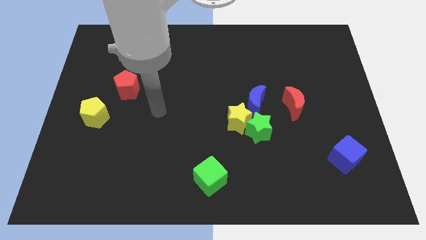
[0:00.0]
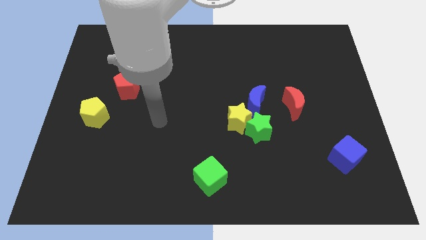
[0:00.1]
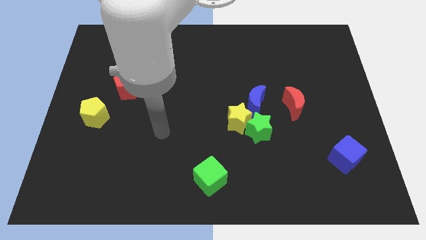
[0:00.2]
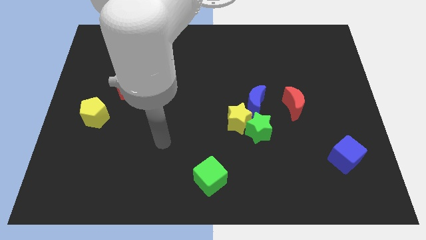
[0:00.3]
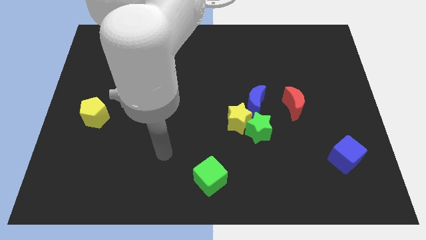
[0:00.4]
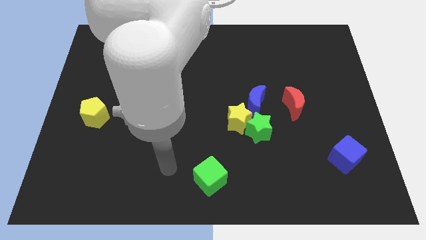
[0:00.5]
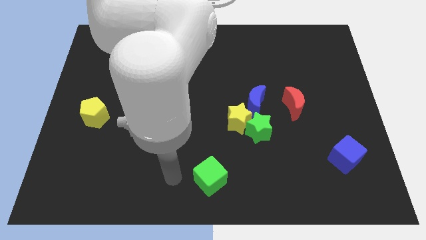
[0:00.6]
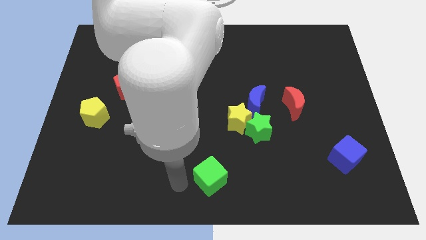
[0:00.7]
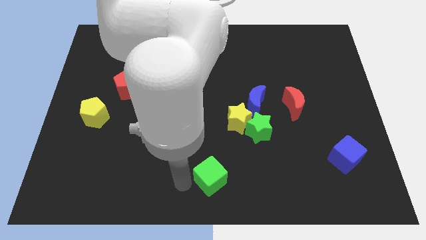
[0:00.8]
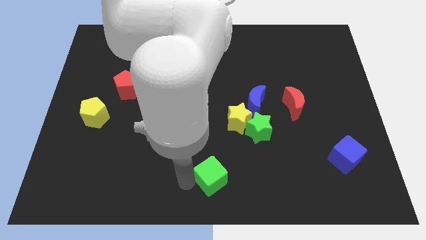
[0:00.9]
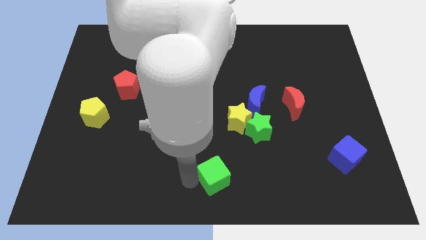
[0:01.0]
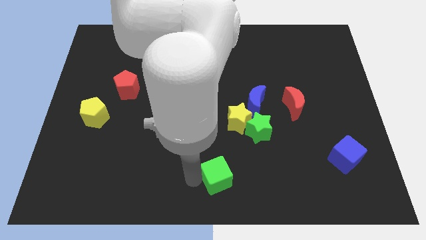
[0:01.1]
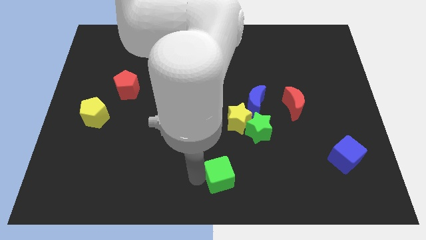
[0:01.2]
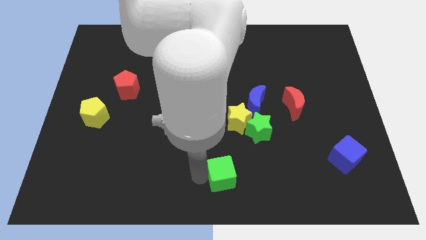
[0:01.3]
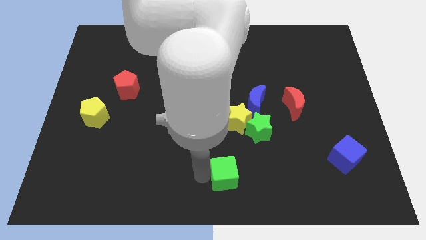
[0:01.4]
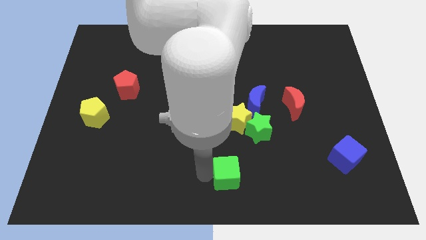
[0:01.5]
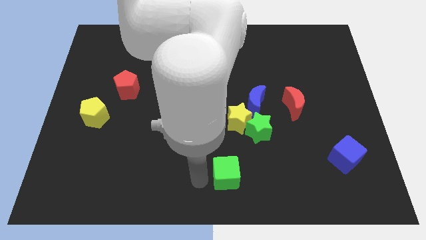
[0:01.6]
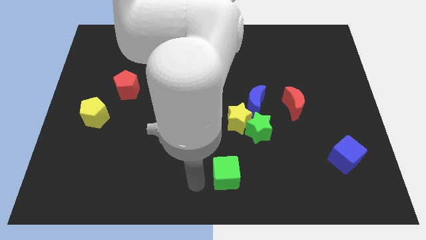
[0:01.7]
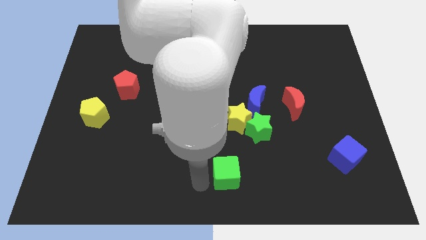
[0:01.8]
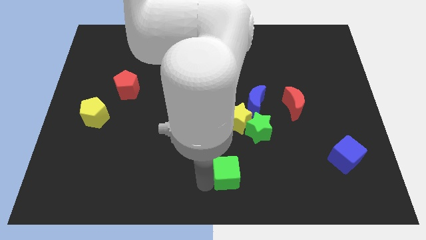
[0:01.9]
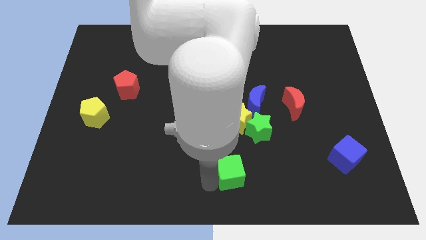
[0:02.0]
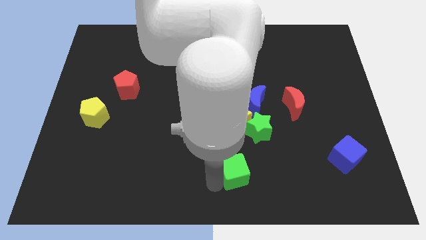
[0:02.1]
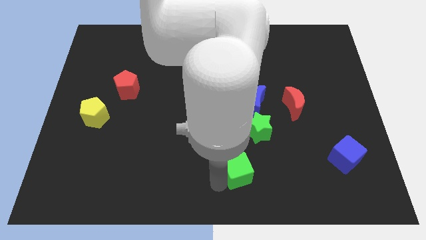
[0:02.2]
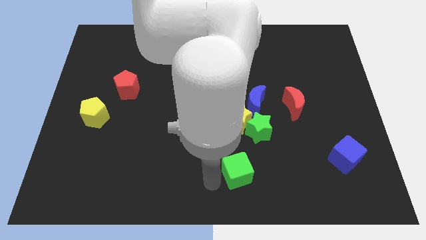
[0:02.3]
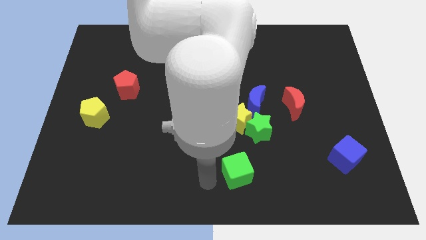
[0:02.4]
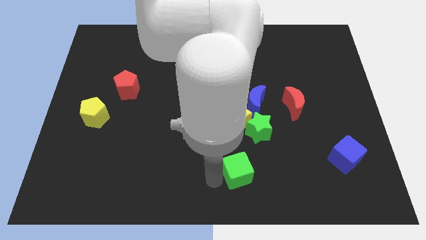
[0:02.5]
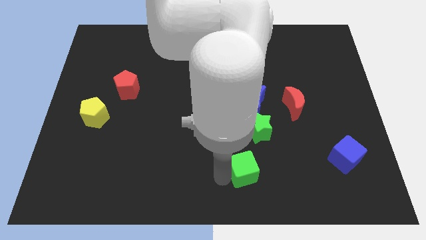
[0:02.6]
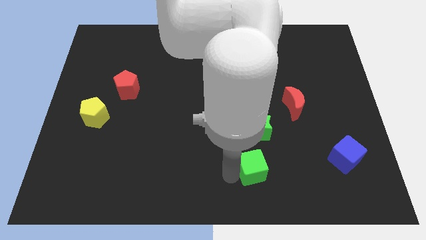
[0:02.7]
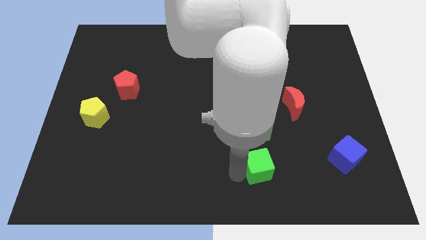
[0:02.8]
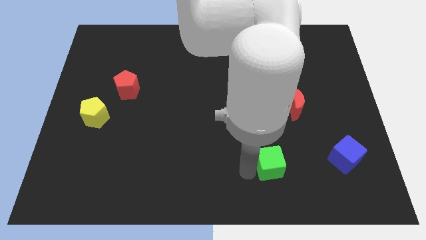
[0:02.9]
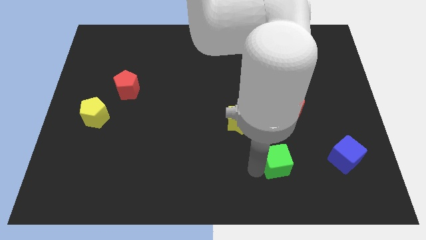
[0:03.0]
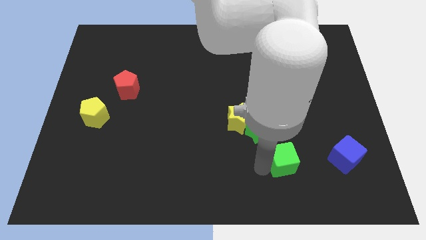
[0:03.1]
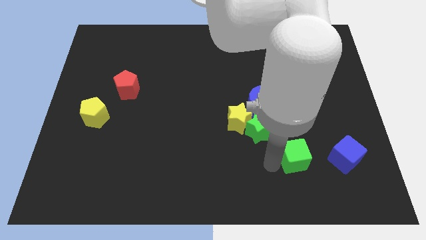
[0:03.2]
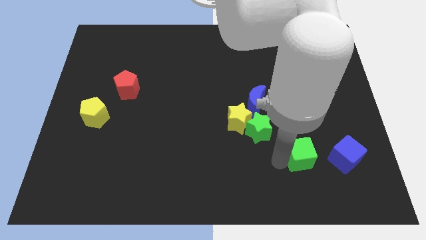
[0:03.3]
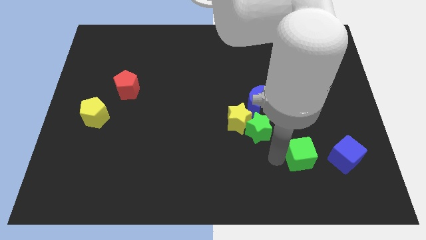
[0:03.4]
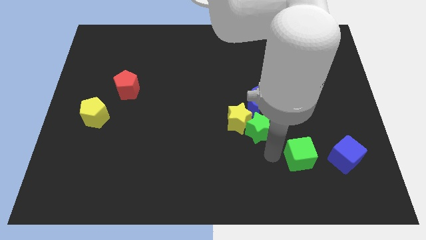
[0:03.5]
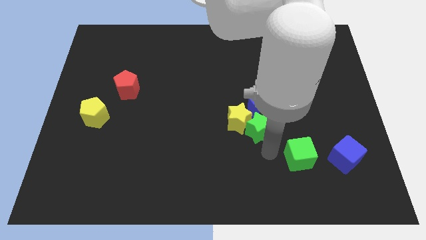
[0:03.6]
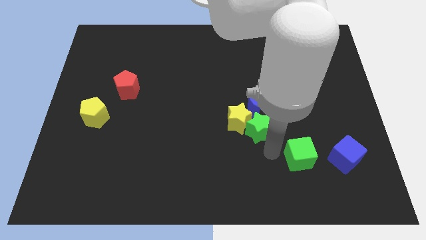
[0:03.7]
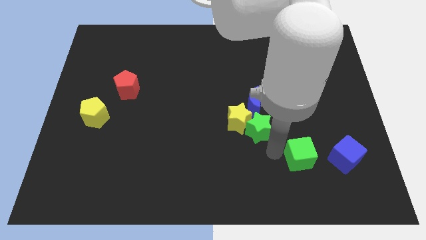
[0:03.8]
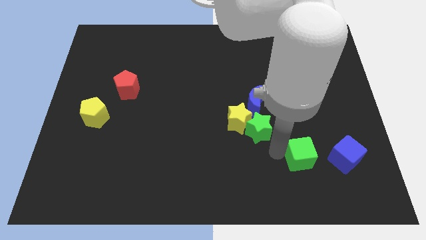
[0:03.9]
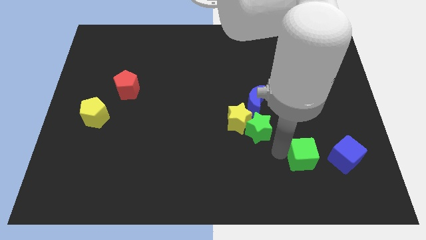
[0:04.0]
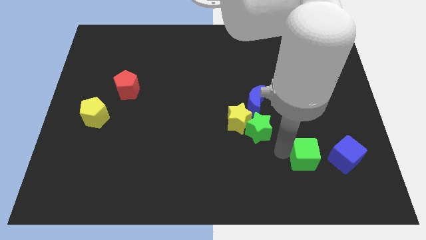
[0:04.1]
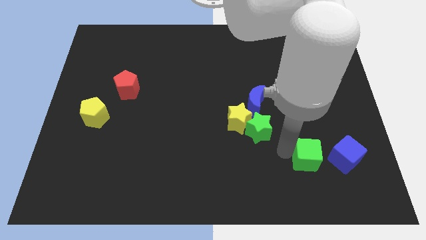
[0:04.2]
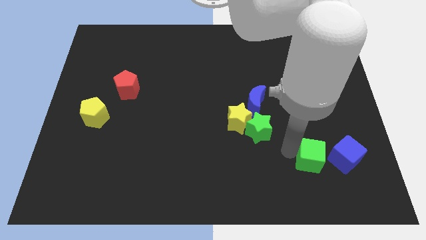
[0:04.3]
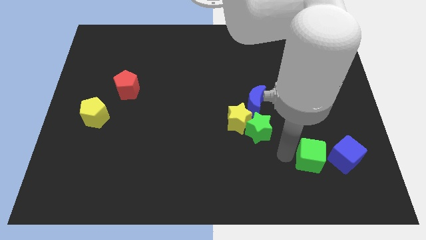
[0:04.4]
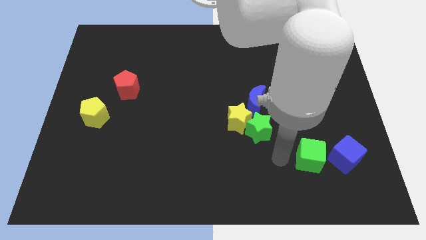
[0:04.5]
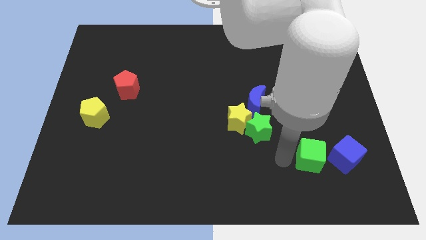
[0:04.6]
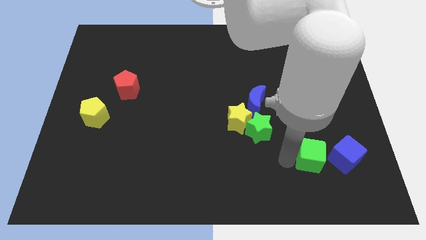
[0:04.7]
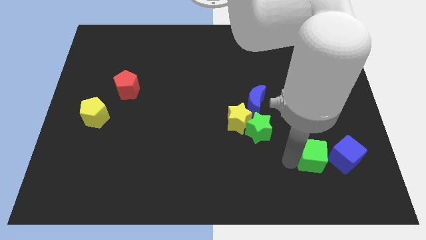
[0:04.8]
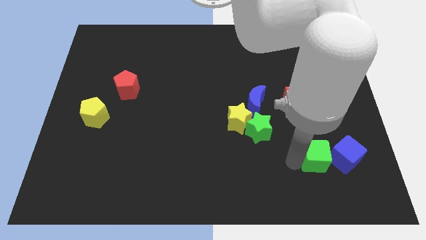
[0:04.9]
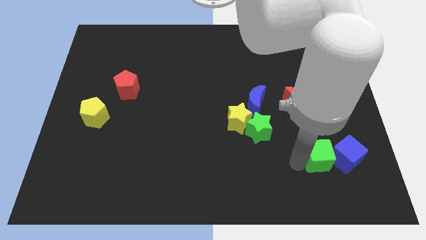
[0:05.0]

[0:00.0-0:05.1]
push the green cube close to the blue cube

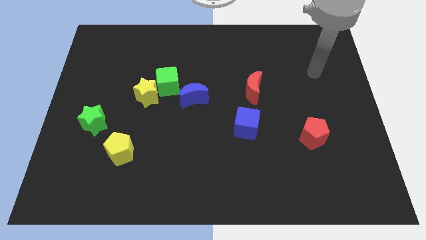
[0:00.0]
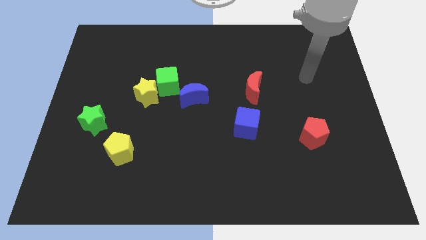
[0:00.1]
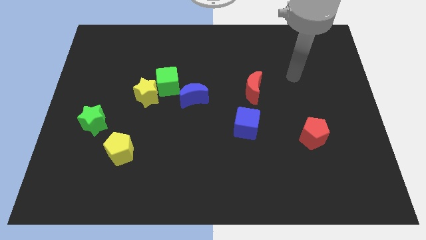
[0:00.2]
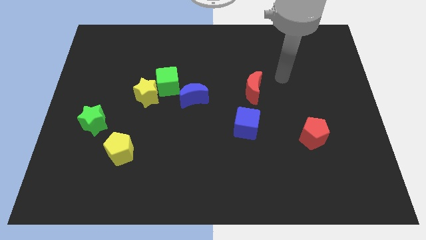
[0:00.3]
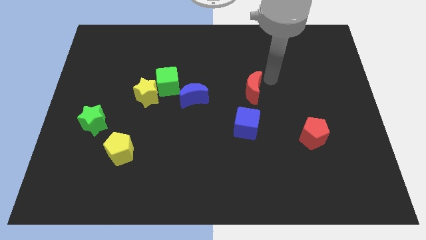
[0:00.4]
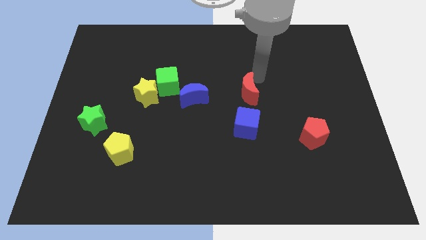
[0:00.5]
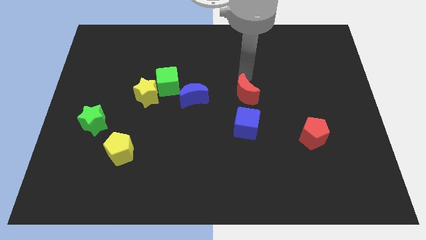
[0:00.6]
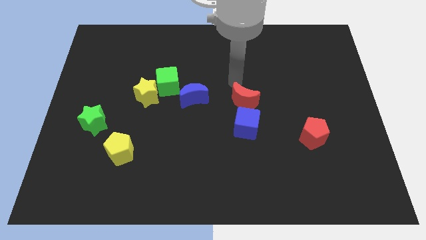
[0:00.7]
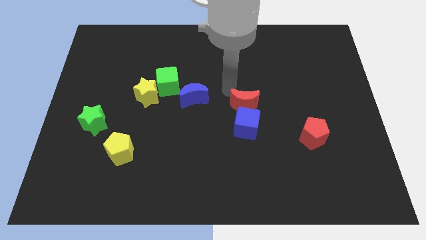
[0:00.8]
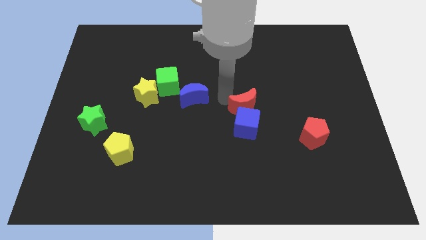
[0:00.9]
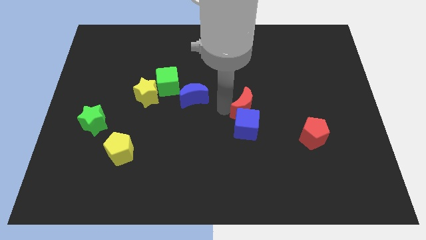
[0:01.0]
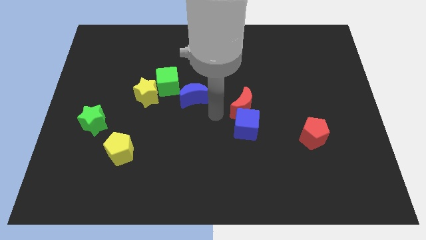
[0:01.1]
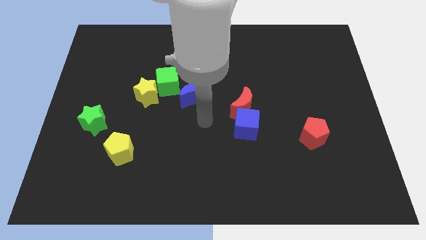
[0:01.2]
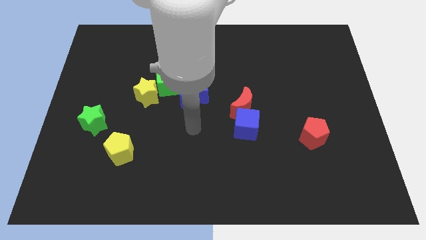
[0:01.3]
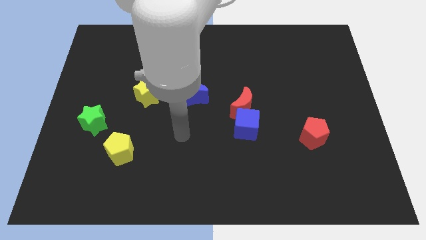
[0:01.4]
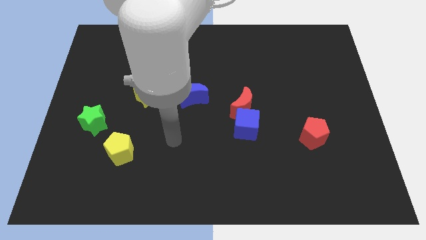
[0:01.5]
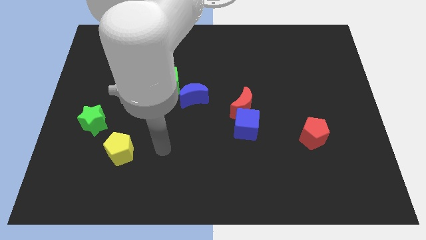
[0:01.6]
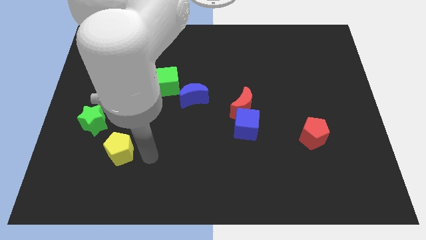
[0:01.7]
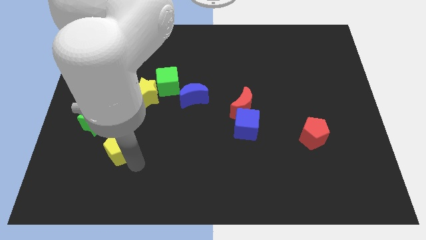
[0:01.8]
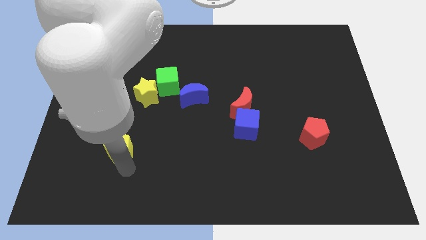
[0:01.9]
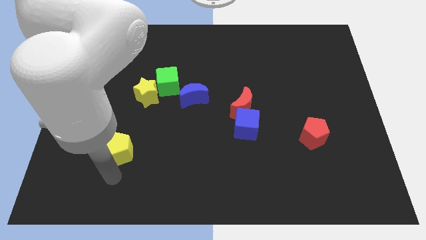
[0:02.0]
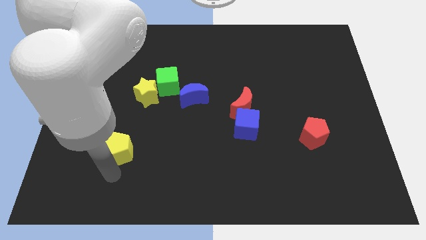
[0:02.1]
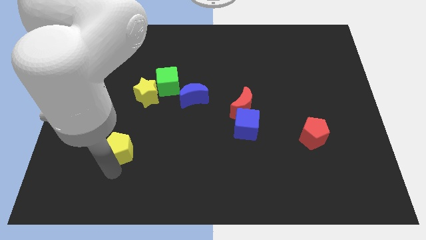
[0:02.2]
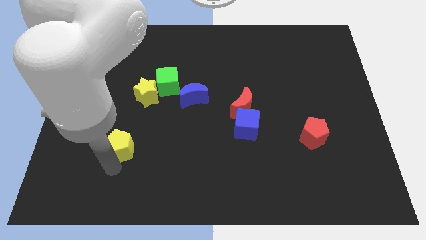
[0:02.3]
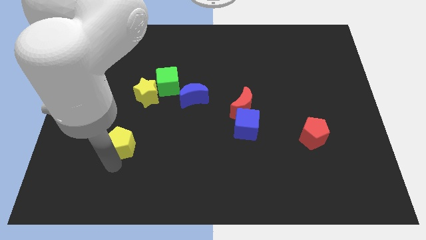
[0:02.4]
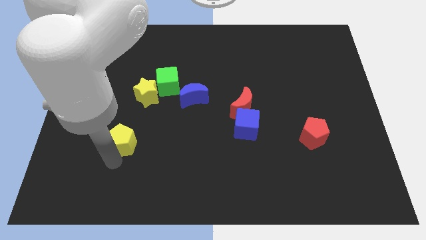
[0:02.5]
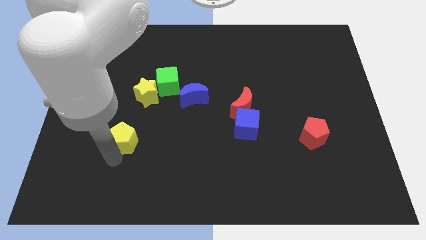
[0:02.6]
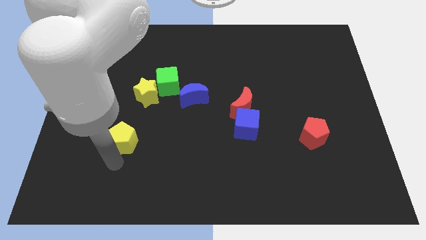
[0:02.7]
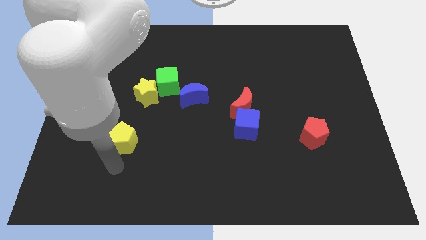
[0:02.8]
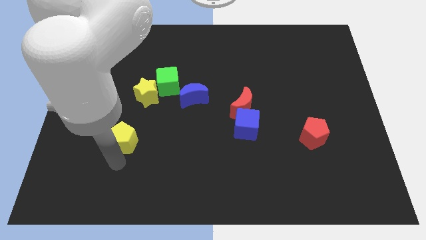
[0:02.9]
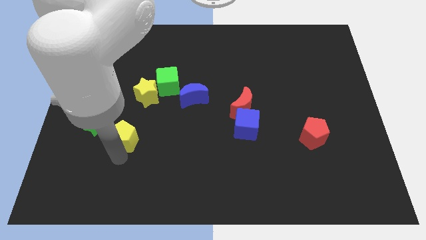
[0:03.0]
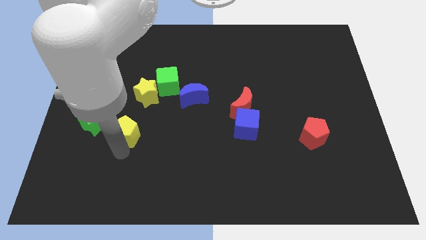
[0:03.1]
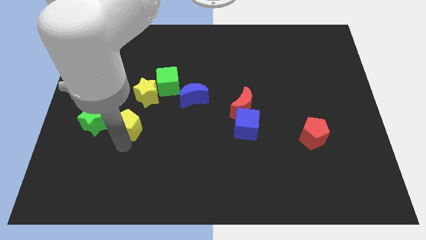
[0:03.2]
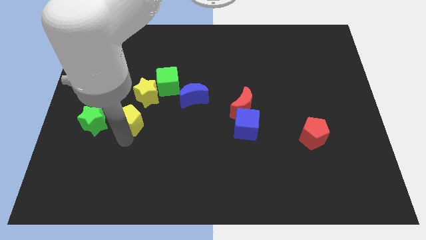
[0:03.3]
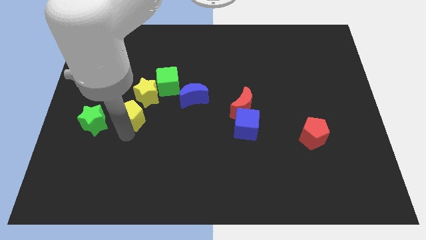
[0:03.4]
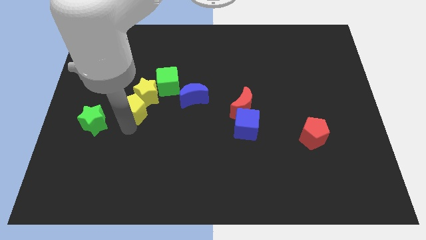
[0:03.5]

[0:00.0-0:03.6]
put the yellow pentagon towards the yellow star
